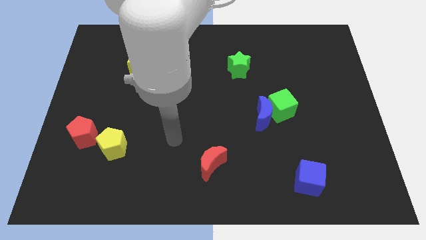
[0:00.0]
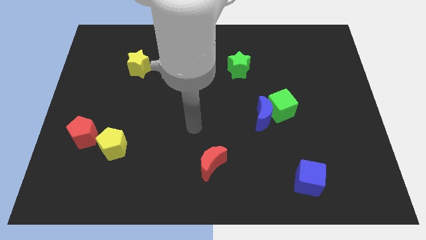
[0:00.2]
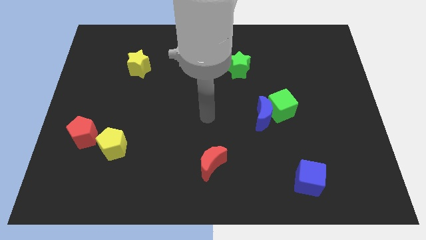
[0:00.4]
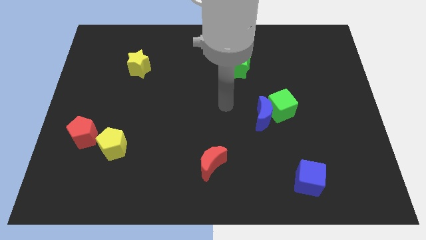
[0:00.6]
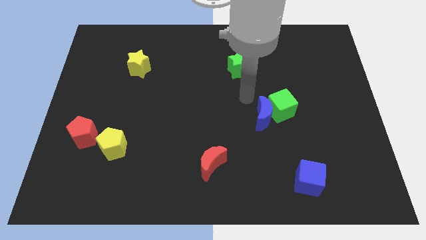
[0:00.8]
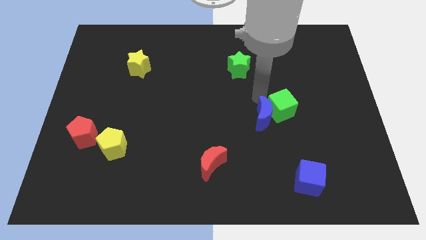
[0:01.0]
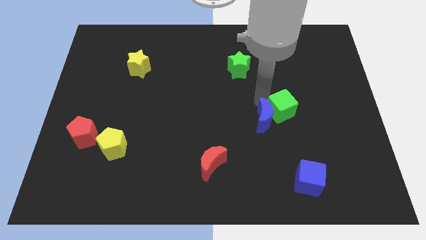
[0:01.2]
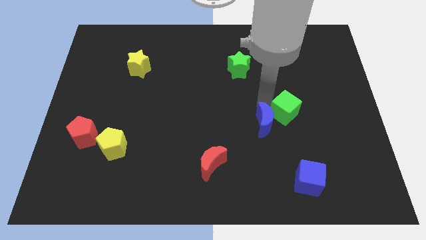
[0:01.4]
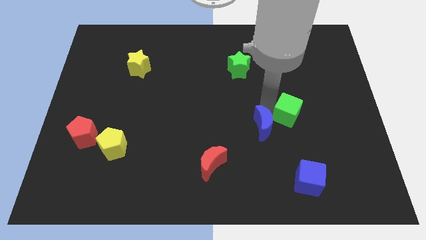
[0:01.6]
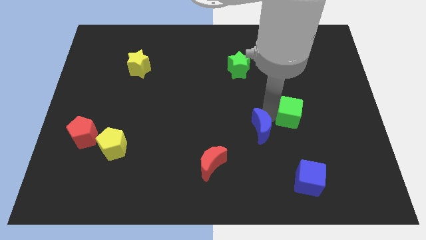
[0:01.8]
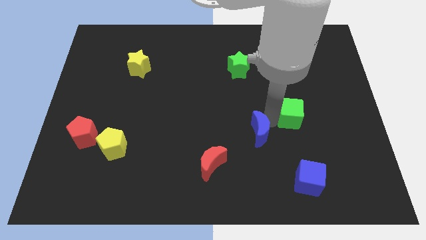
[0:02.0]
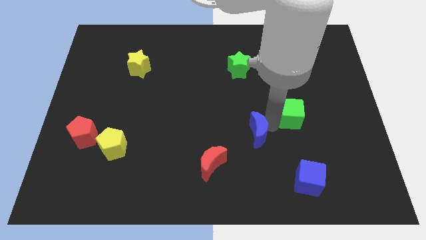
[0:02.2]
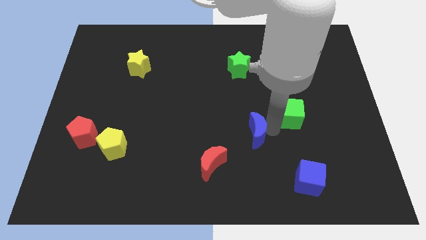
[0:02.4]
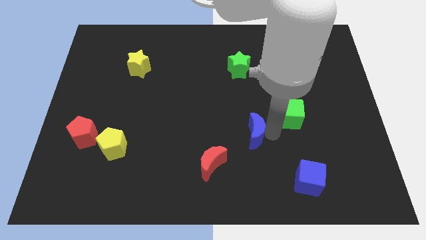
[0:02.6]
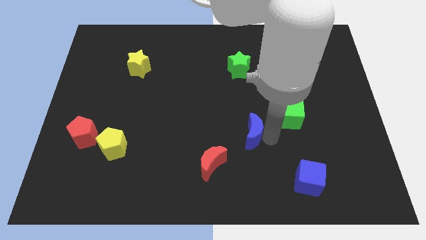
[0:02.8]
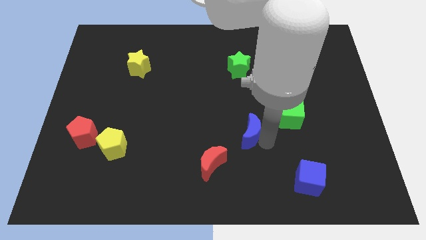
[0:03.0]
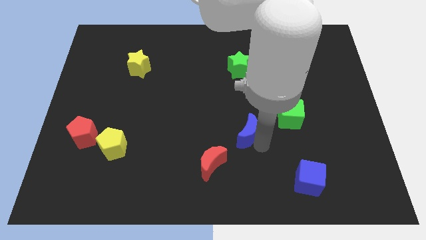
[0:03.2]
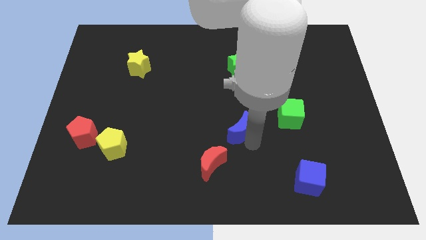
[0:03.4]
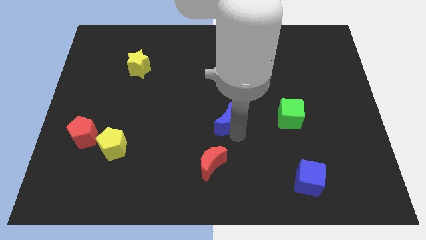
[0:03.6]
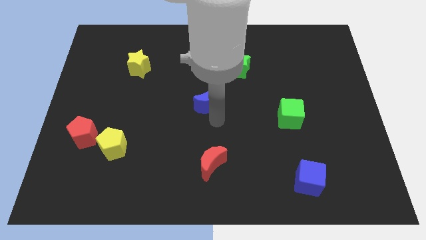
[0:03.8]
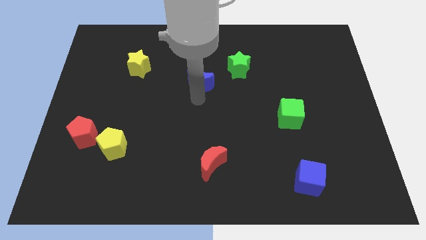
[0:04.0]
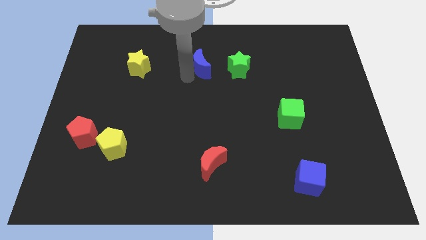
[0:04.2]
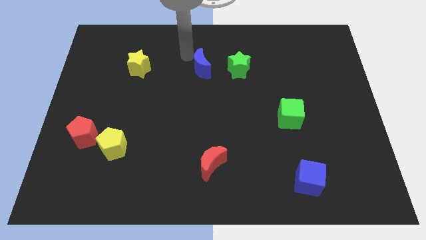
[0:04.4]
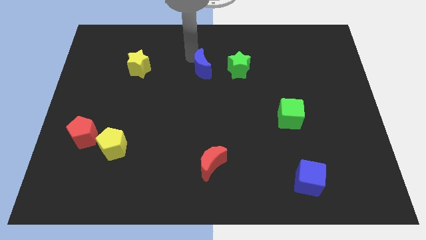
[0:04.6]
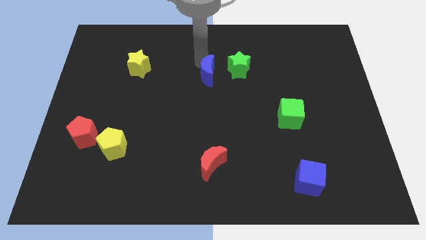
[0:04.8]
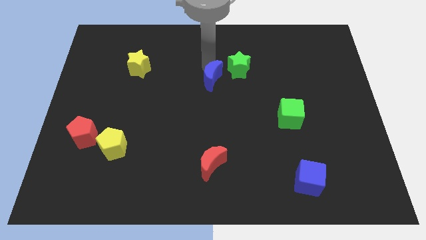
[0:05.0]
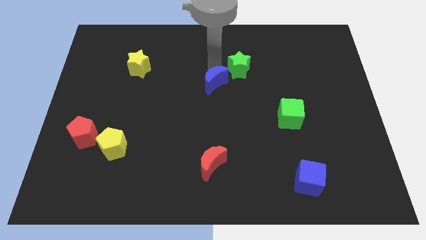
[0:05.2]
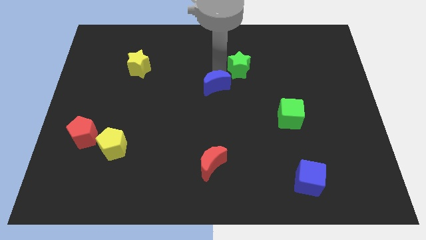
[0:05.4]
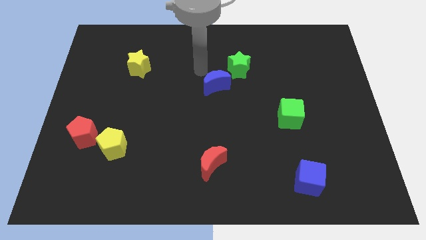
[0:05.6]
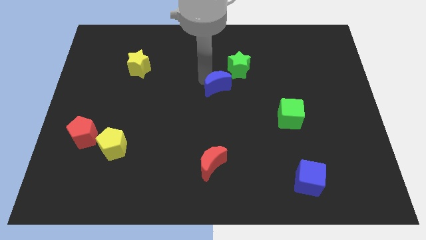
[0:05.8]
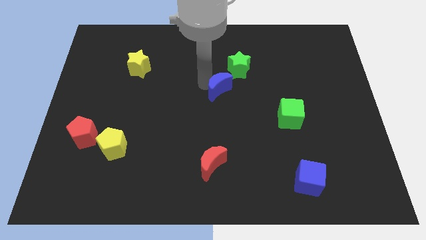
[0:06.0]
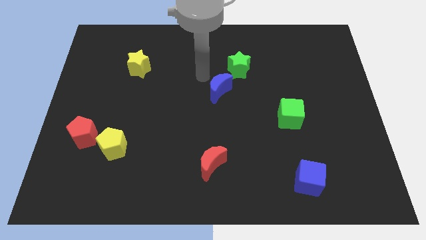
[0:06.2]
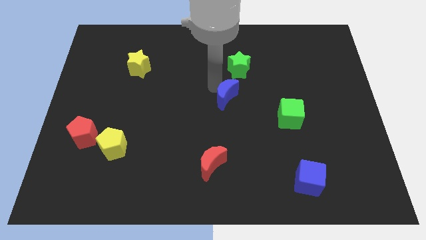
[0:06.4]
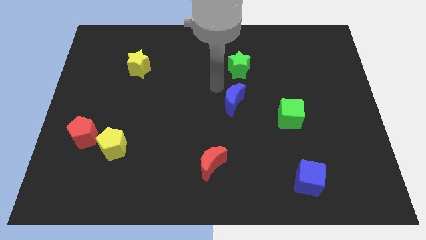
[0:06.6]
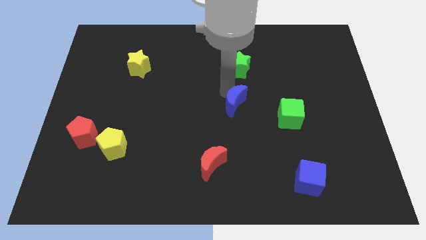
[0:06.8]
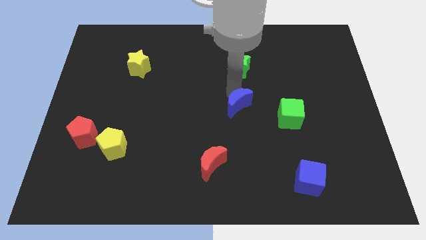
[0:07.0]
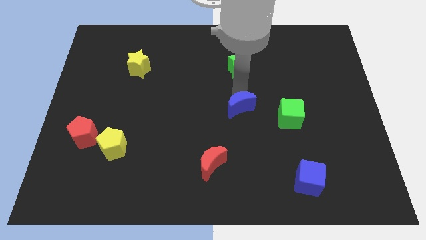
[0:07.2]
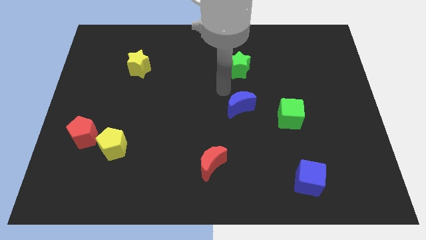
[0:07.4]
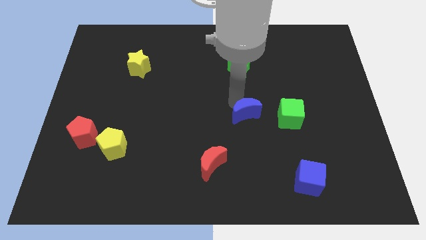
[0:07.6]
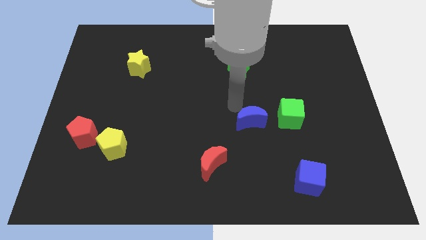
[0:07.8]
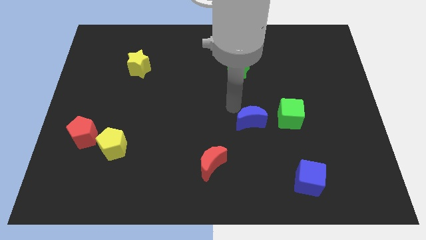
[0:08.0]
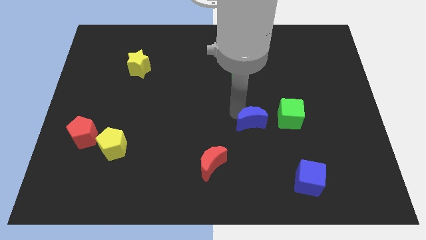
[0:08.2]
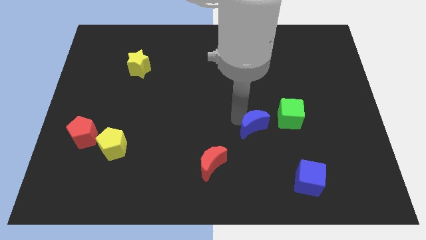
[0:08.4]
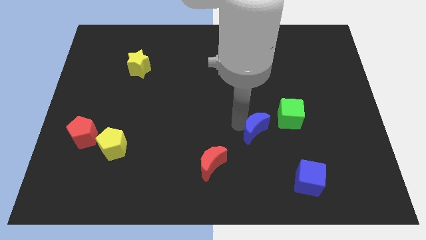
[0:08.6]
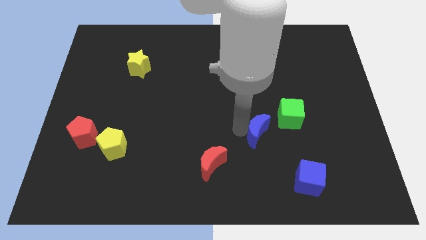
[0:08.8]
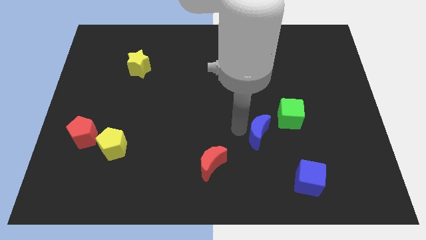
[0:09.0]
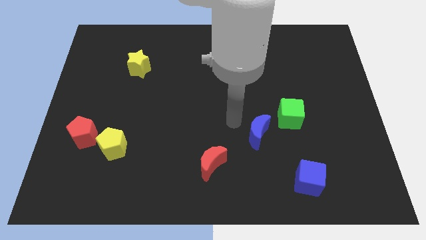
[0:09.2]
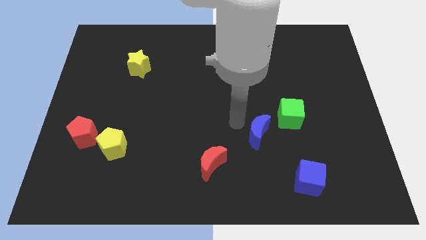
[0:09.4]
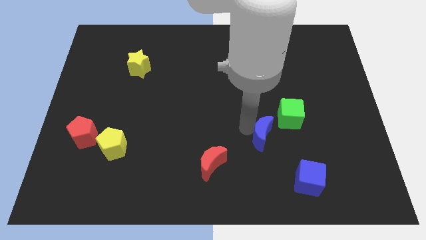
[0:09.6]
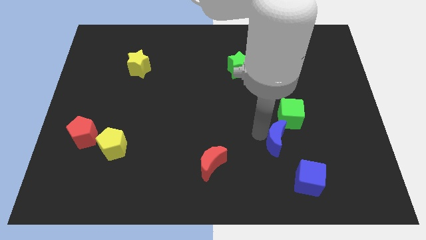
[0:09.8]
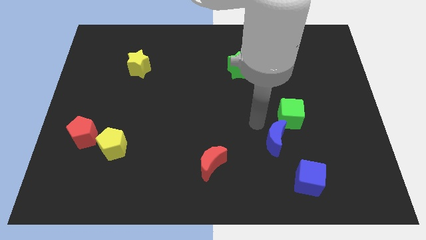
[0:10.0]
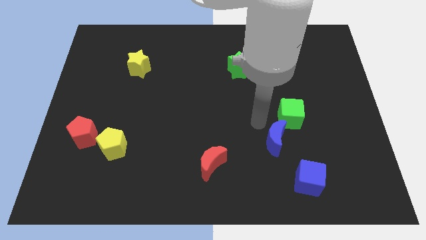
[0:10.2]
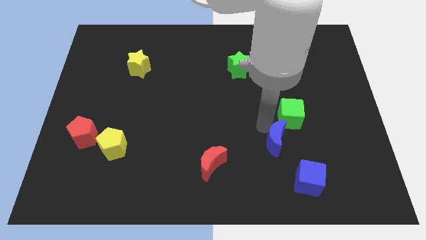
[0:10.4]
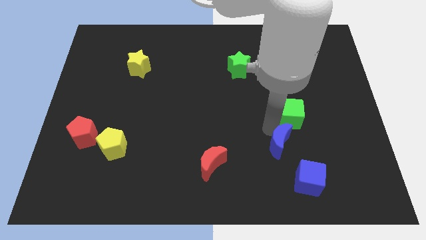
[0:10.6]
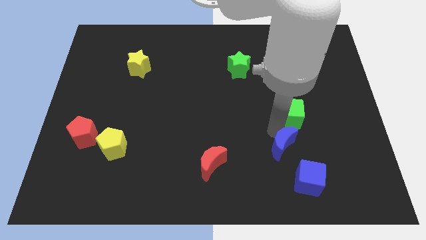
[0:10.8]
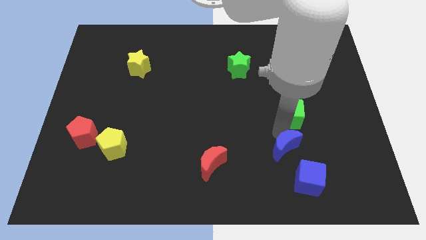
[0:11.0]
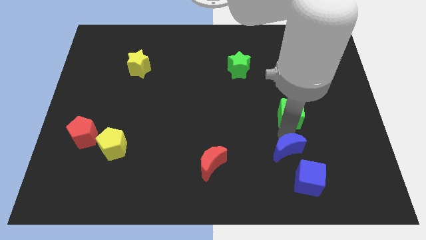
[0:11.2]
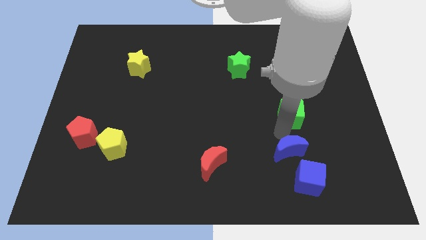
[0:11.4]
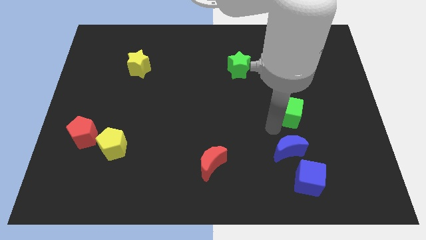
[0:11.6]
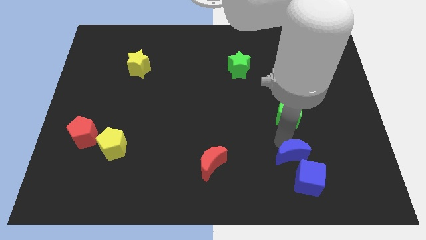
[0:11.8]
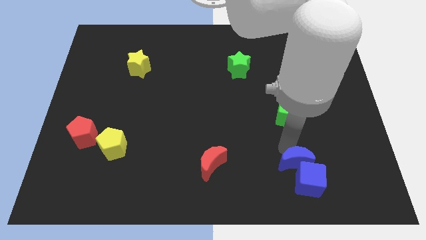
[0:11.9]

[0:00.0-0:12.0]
slide the blue moon next to the blue cube
